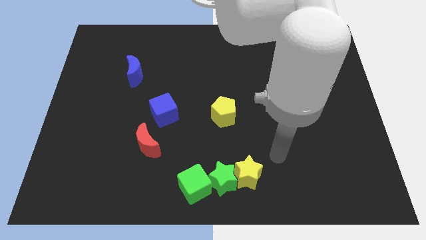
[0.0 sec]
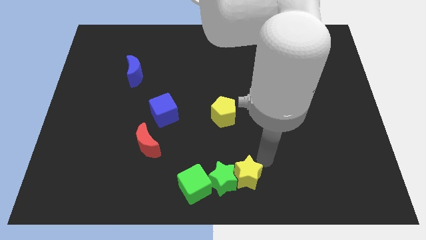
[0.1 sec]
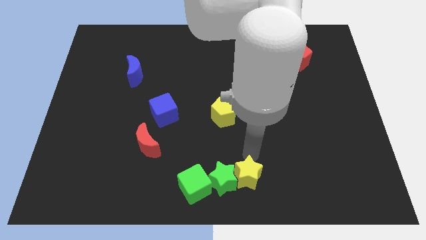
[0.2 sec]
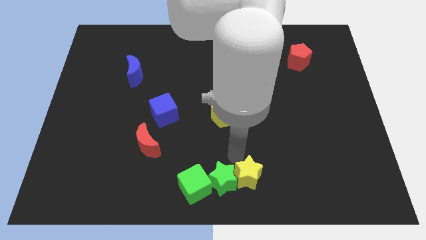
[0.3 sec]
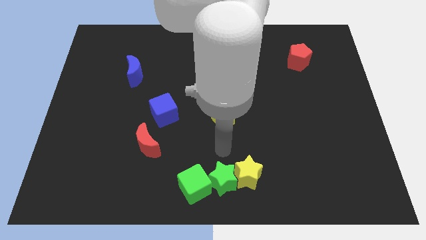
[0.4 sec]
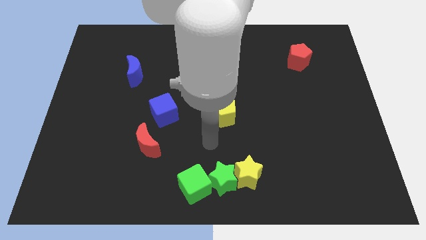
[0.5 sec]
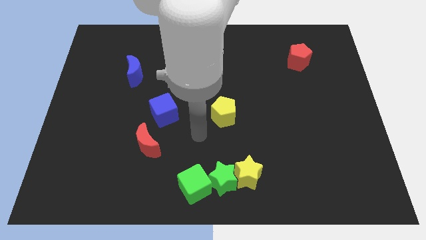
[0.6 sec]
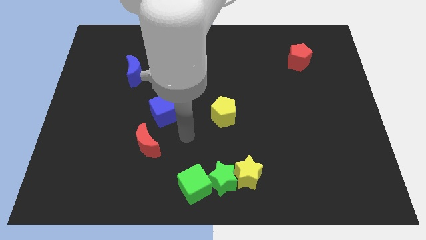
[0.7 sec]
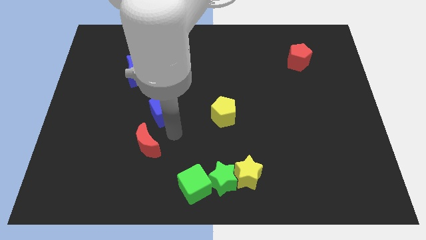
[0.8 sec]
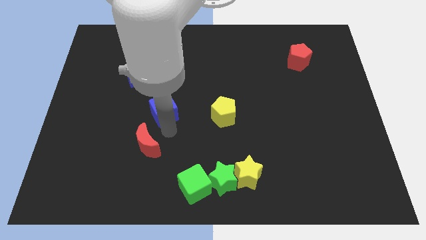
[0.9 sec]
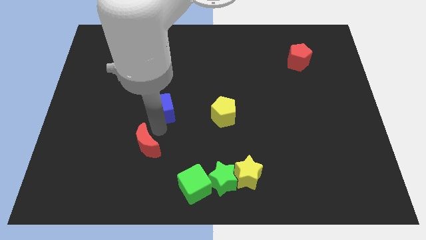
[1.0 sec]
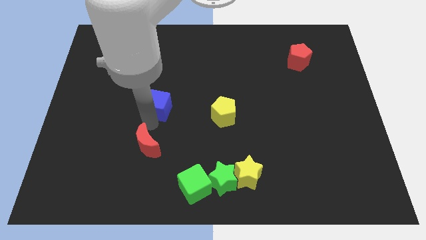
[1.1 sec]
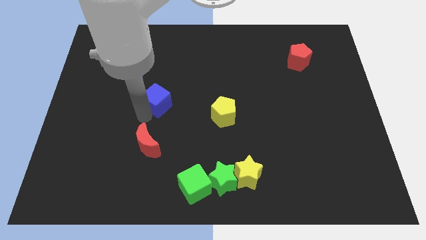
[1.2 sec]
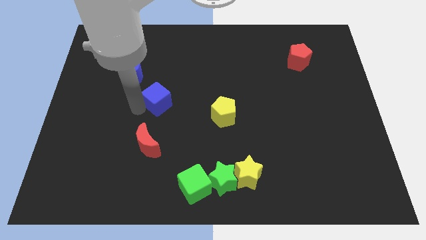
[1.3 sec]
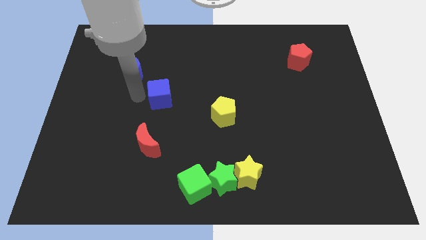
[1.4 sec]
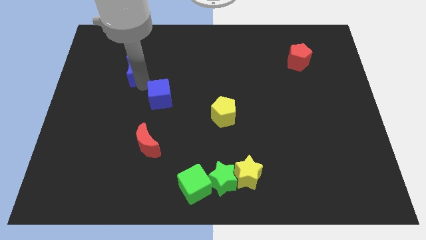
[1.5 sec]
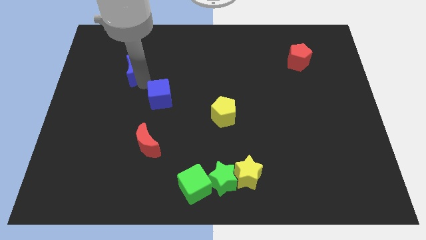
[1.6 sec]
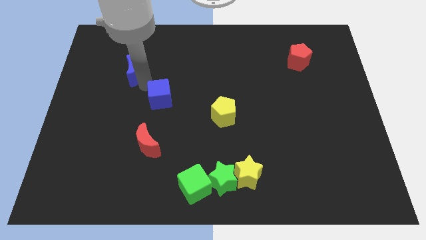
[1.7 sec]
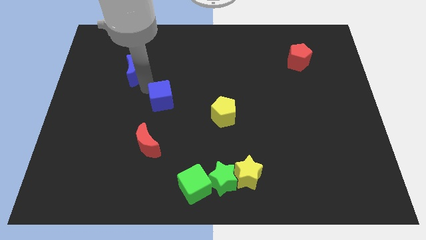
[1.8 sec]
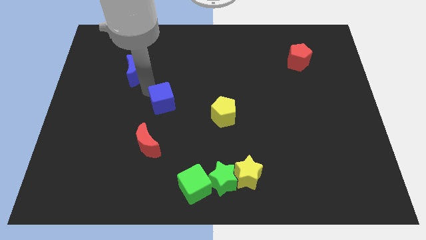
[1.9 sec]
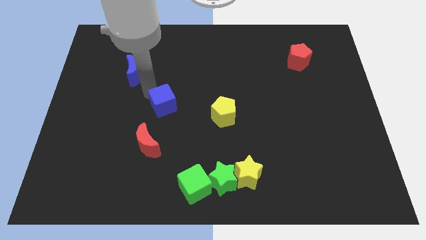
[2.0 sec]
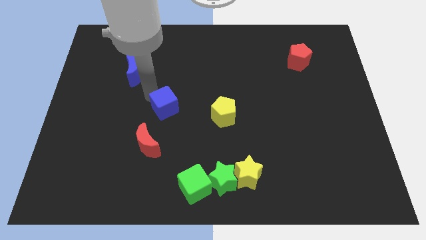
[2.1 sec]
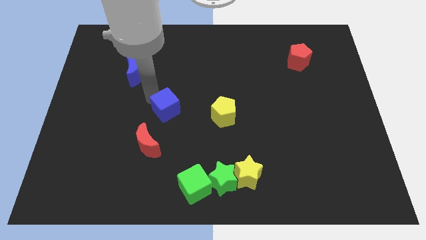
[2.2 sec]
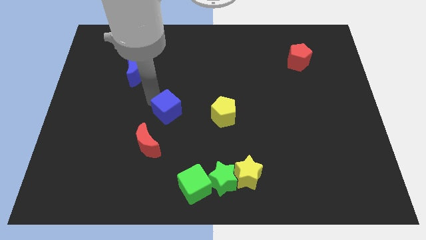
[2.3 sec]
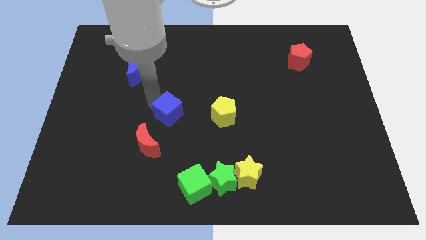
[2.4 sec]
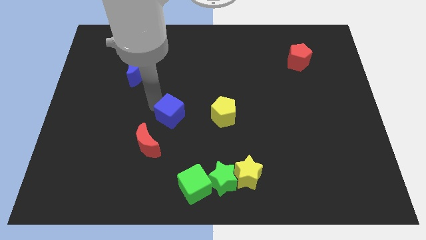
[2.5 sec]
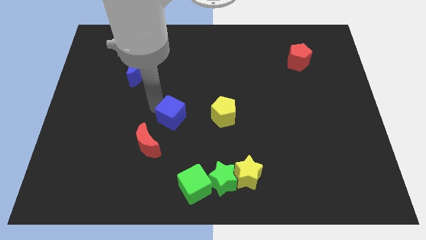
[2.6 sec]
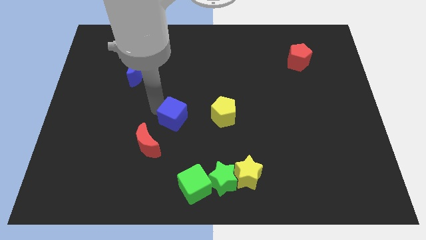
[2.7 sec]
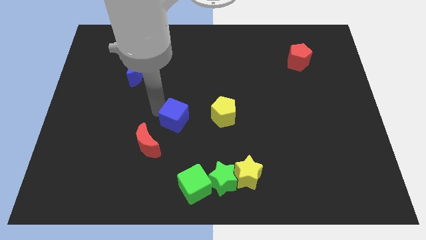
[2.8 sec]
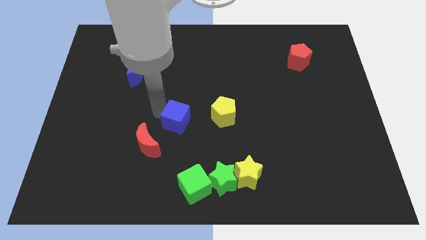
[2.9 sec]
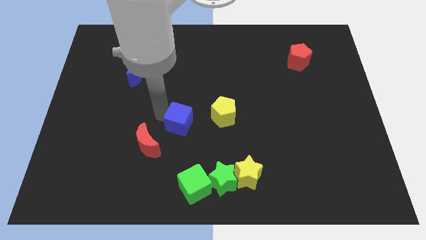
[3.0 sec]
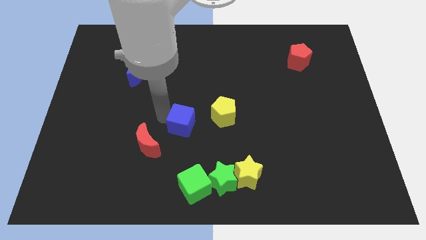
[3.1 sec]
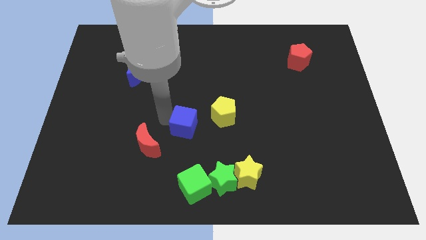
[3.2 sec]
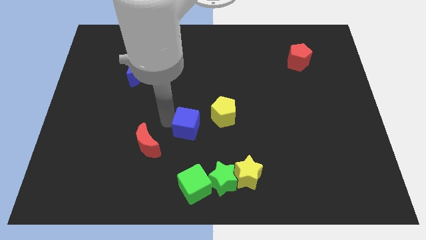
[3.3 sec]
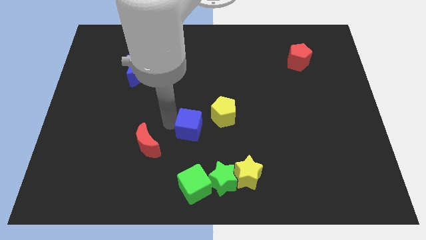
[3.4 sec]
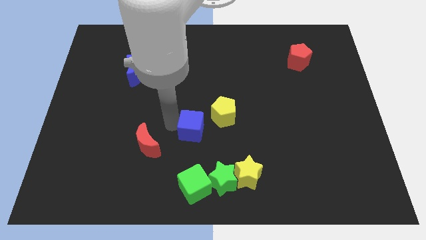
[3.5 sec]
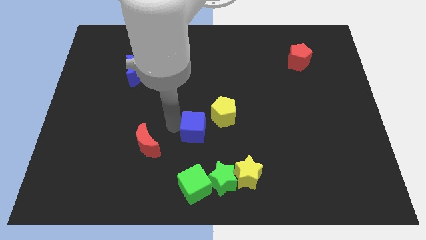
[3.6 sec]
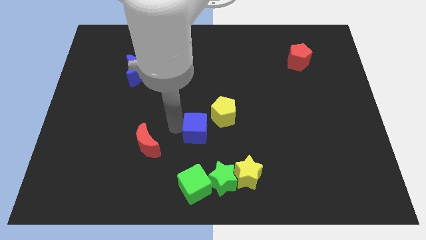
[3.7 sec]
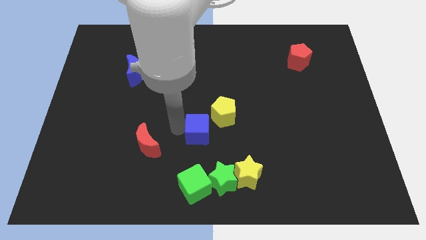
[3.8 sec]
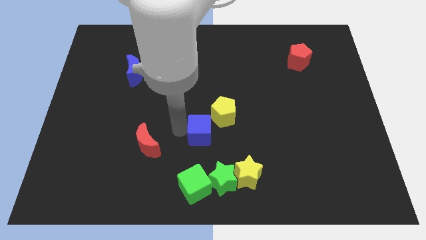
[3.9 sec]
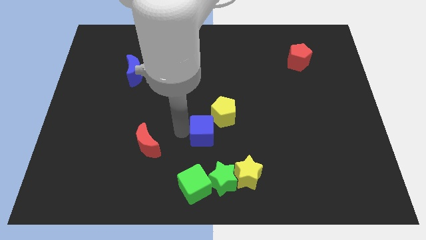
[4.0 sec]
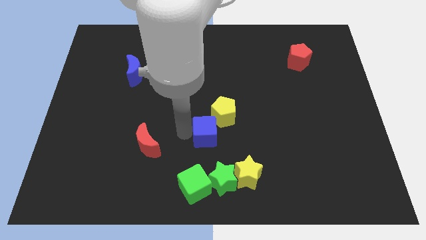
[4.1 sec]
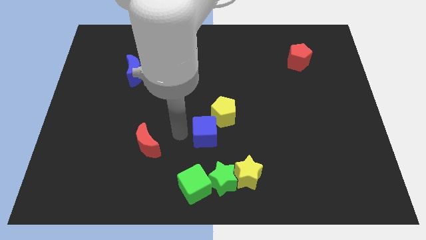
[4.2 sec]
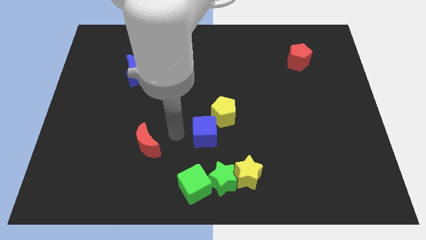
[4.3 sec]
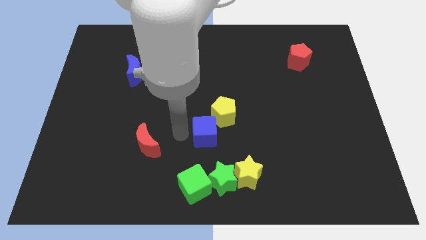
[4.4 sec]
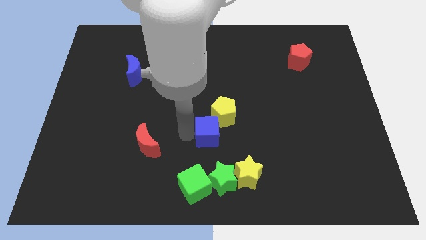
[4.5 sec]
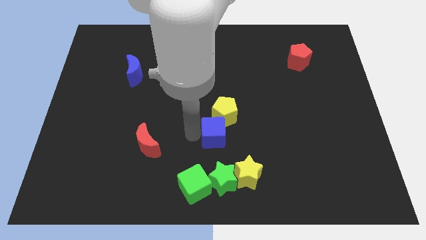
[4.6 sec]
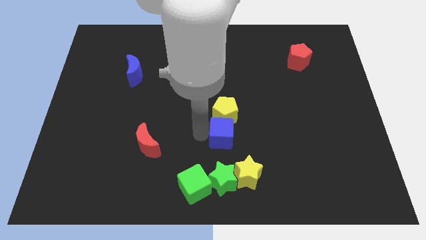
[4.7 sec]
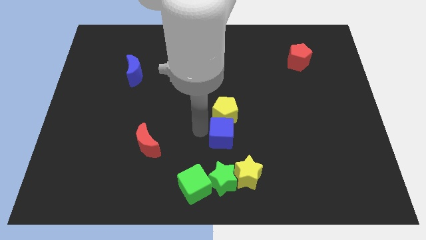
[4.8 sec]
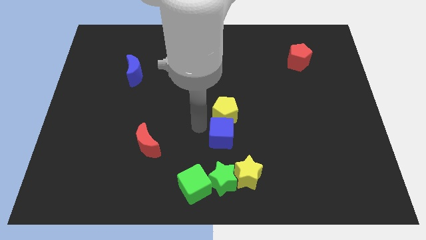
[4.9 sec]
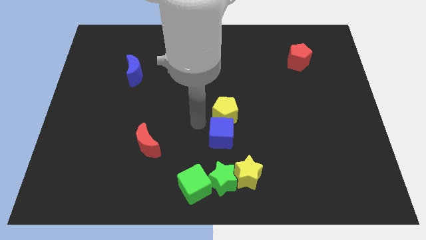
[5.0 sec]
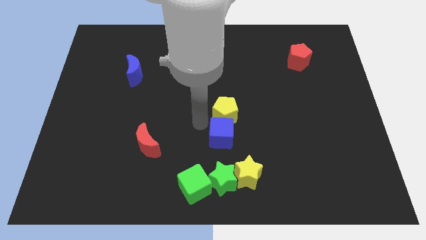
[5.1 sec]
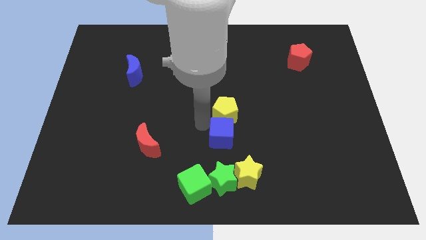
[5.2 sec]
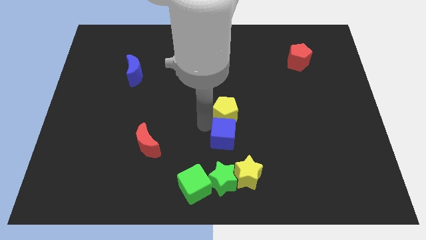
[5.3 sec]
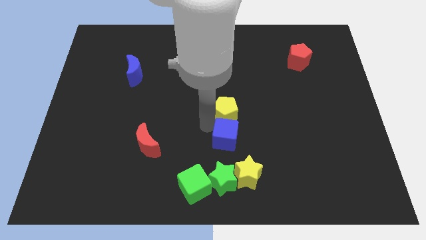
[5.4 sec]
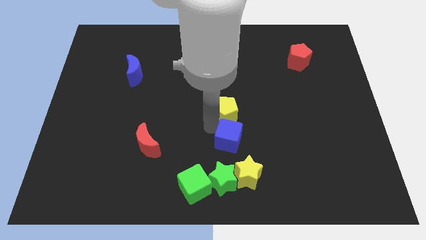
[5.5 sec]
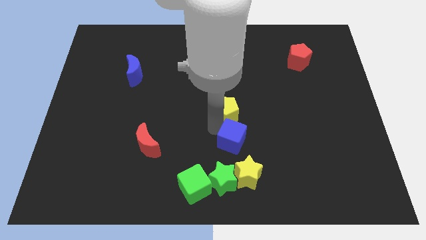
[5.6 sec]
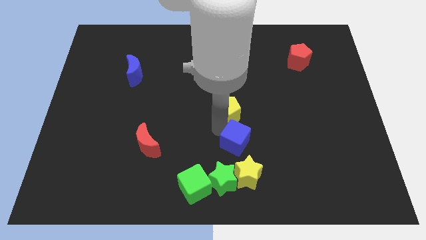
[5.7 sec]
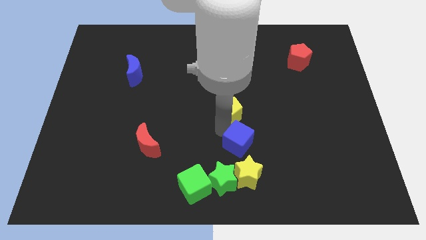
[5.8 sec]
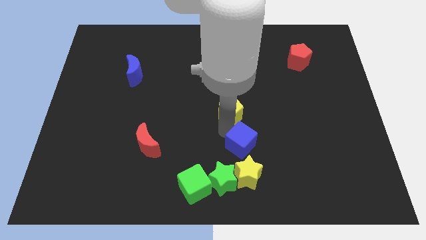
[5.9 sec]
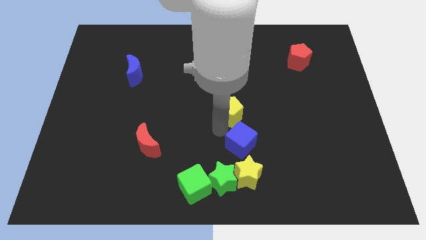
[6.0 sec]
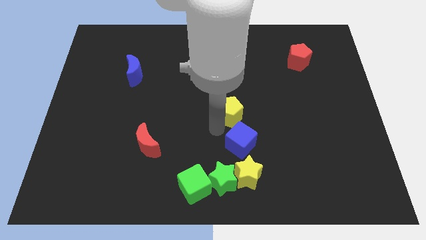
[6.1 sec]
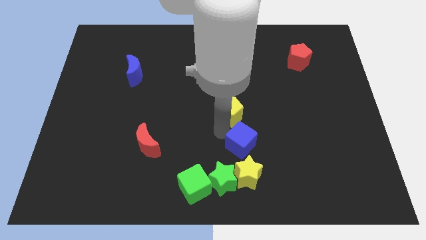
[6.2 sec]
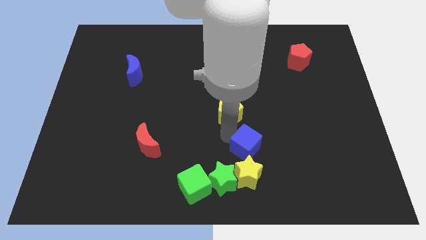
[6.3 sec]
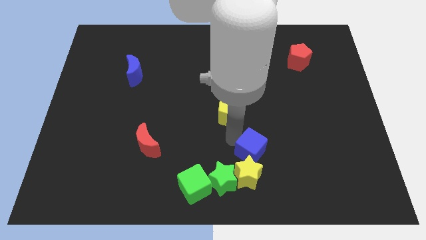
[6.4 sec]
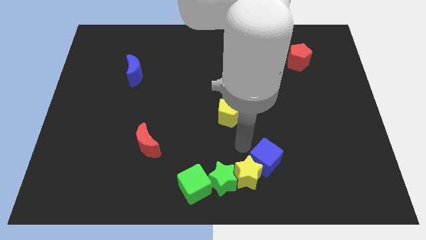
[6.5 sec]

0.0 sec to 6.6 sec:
put the blue cube to the right side of the yellow star

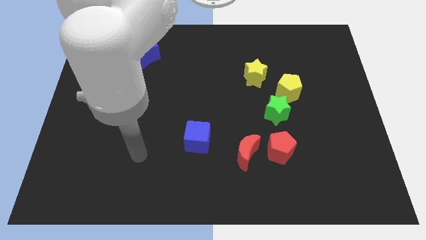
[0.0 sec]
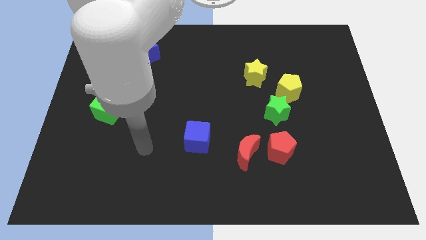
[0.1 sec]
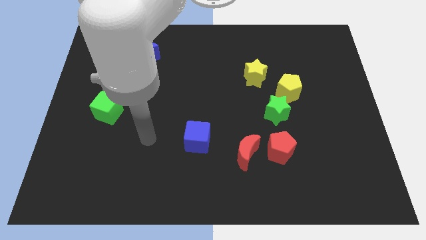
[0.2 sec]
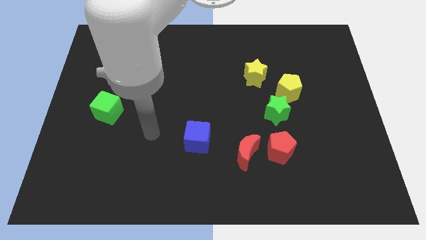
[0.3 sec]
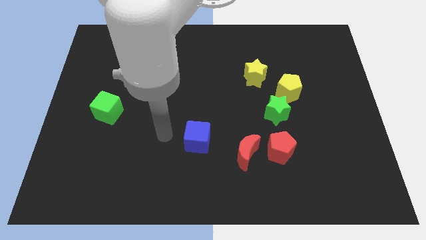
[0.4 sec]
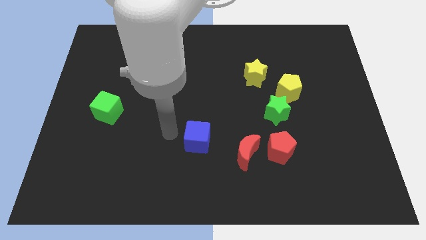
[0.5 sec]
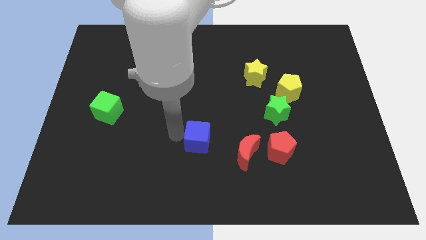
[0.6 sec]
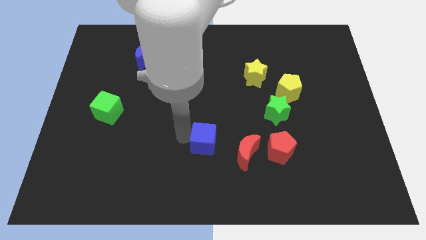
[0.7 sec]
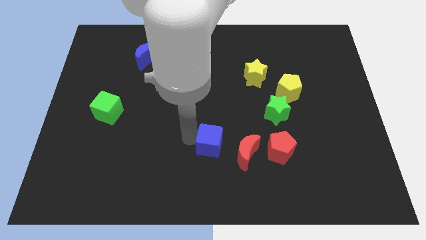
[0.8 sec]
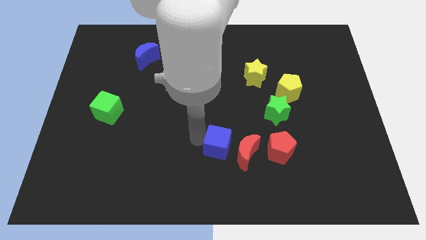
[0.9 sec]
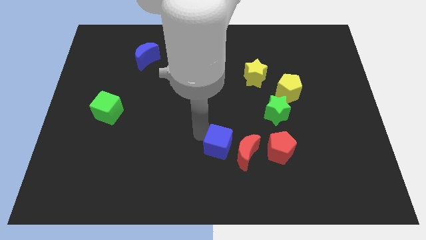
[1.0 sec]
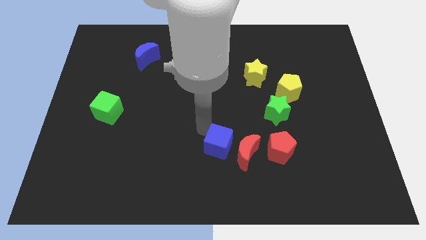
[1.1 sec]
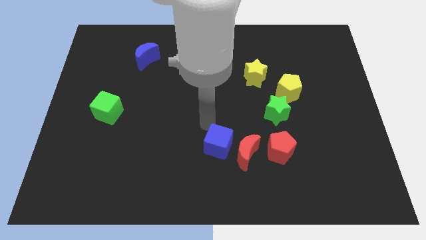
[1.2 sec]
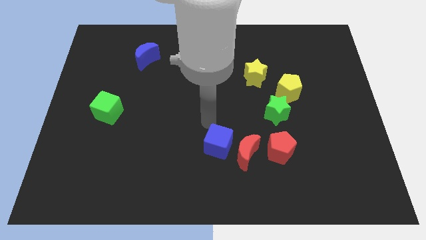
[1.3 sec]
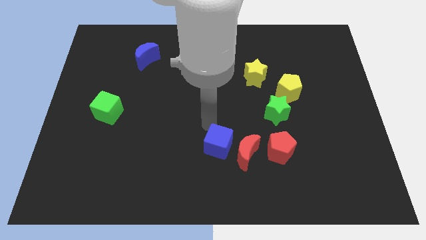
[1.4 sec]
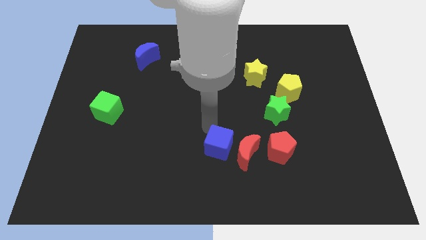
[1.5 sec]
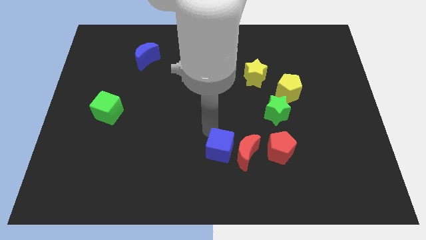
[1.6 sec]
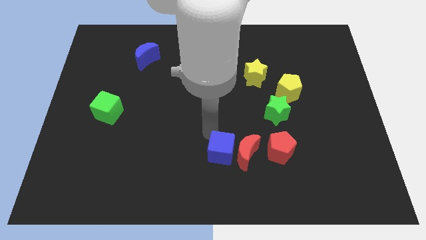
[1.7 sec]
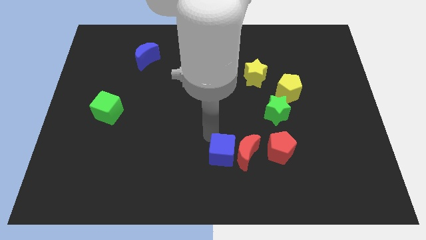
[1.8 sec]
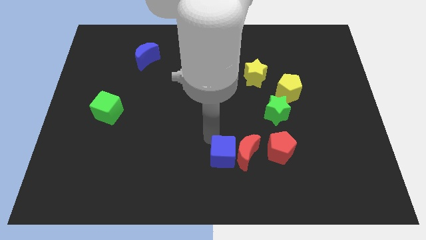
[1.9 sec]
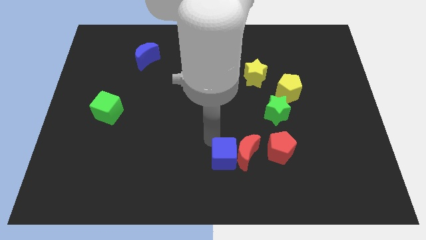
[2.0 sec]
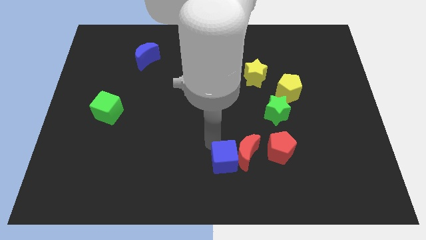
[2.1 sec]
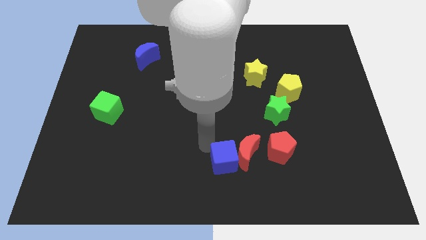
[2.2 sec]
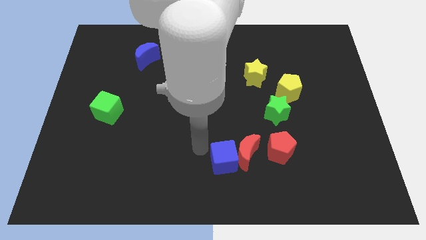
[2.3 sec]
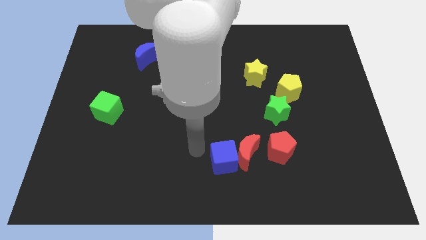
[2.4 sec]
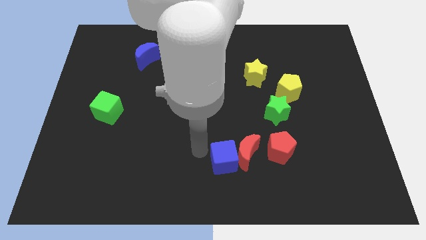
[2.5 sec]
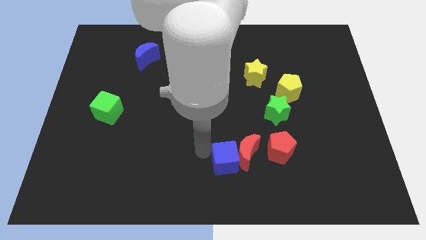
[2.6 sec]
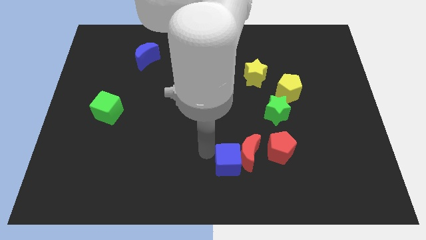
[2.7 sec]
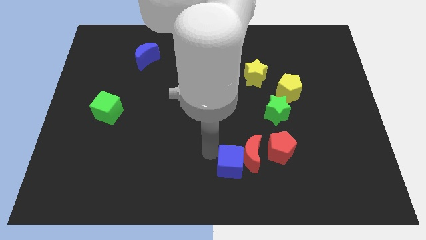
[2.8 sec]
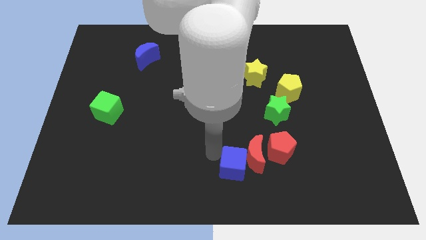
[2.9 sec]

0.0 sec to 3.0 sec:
slide the blue cube to the bottom left side of the red pentagon
